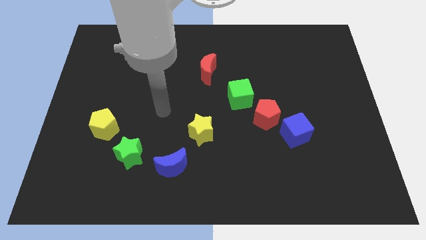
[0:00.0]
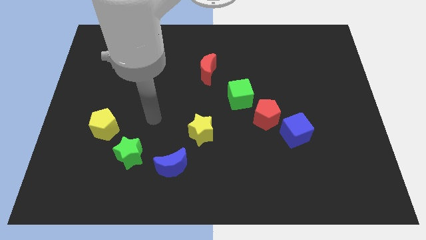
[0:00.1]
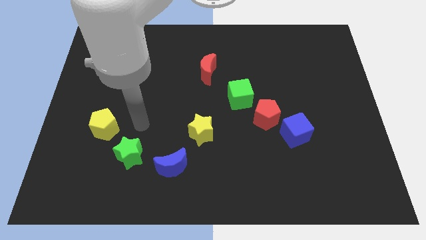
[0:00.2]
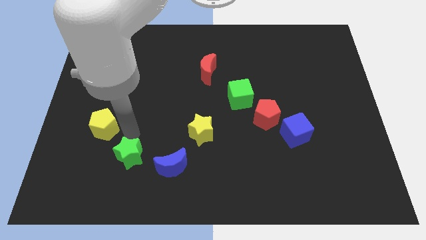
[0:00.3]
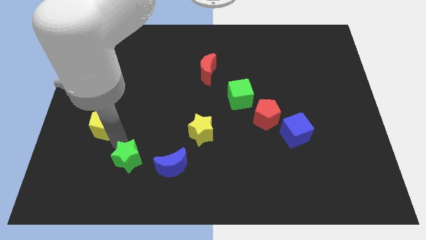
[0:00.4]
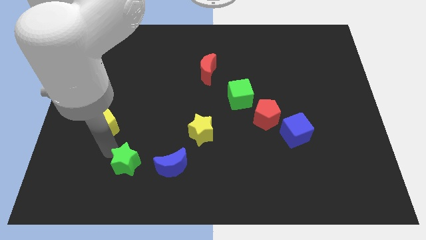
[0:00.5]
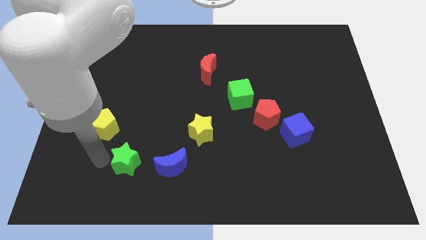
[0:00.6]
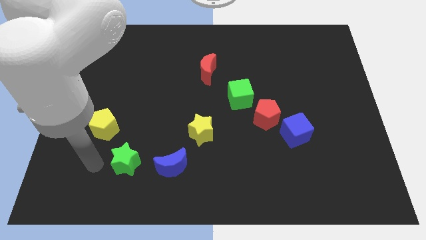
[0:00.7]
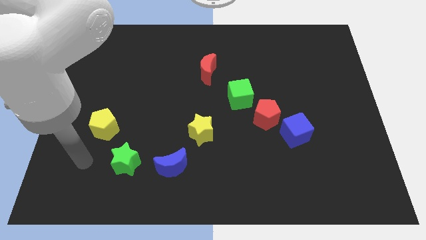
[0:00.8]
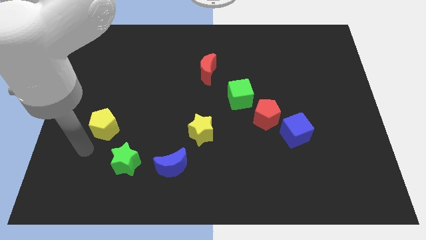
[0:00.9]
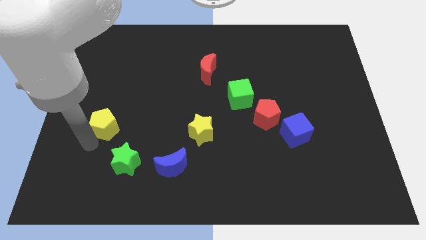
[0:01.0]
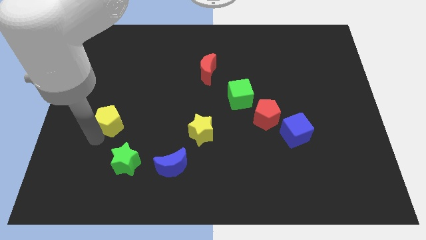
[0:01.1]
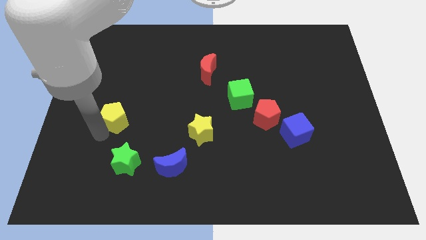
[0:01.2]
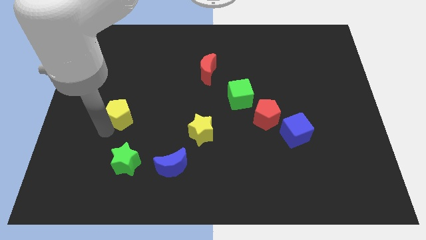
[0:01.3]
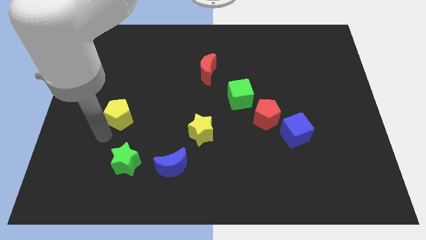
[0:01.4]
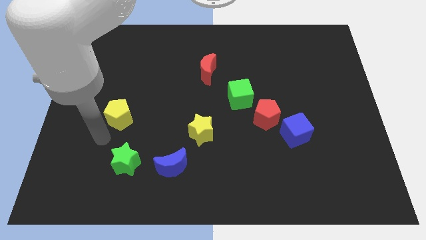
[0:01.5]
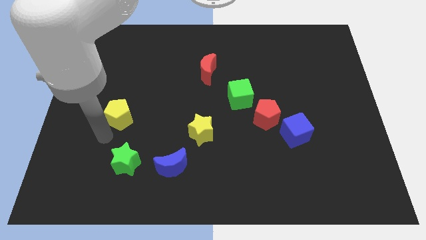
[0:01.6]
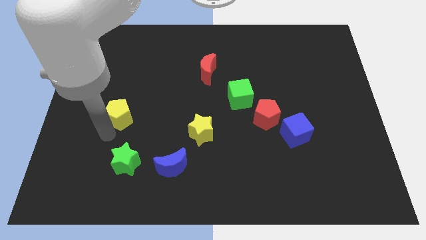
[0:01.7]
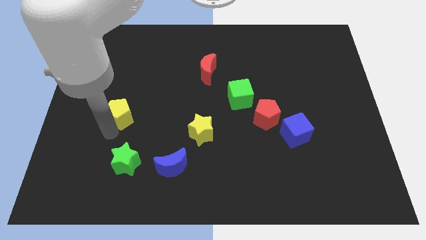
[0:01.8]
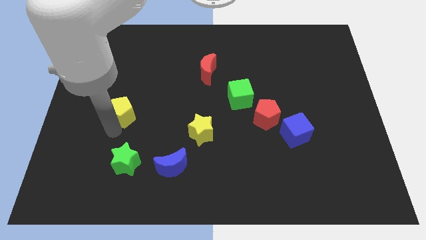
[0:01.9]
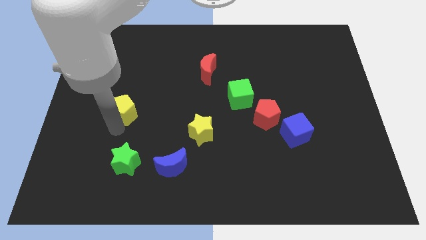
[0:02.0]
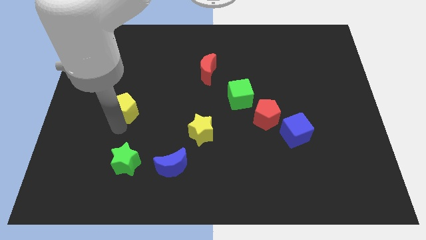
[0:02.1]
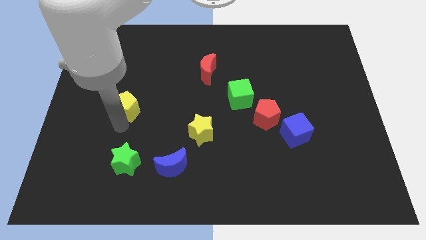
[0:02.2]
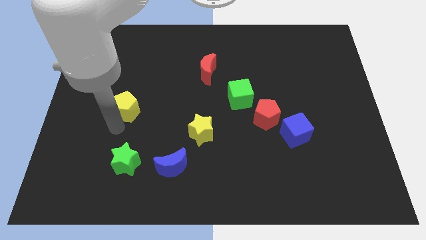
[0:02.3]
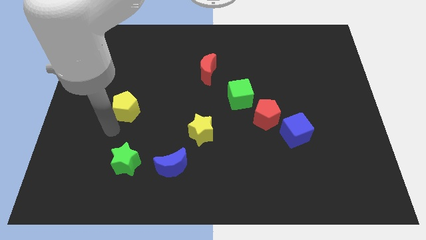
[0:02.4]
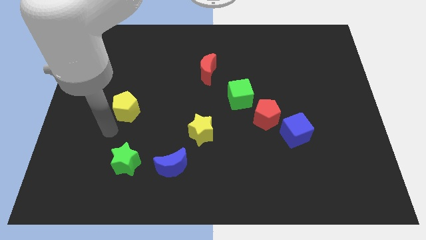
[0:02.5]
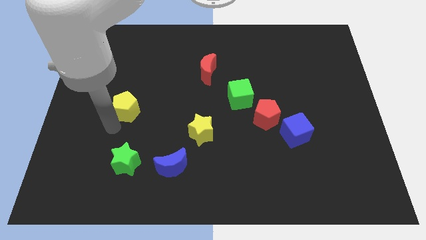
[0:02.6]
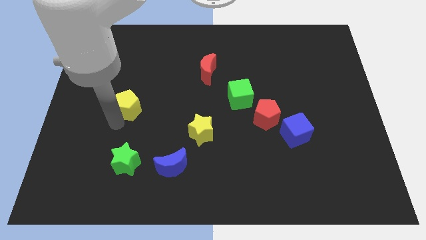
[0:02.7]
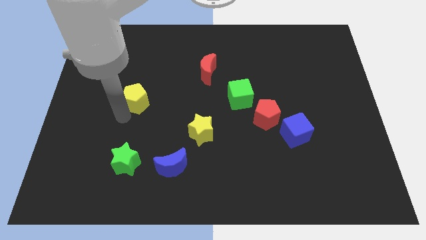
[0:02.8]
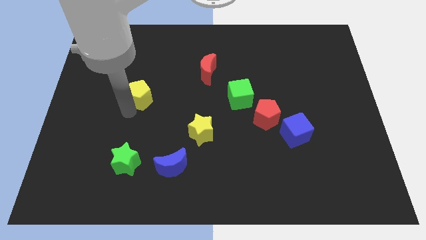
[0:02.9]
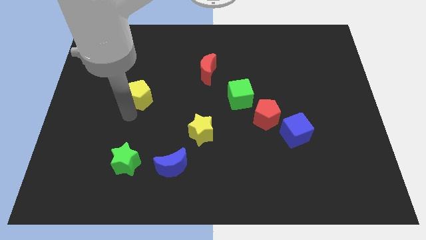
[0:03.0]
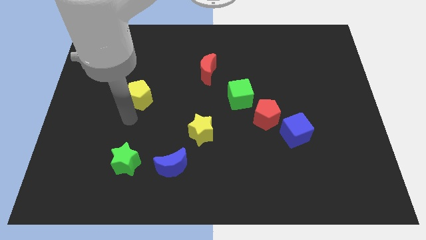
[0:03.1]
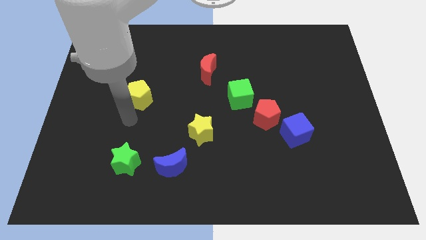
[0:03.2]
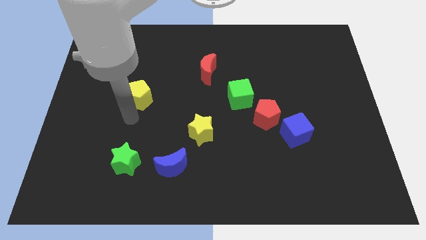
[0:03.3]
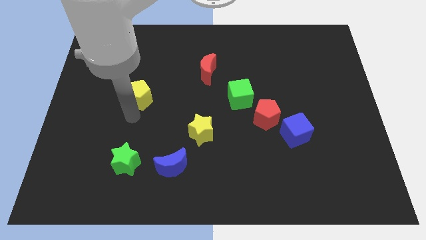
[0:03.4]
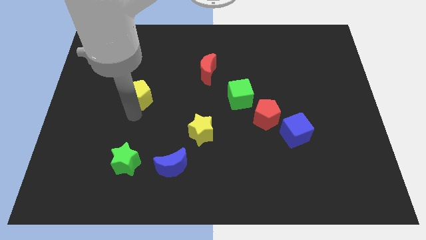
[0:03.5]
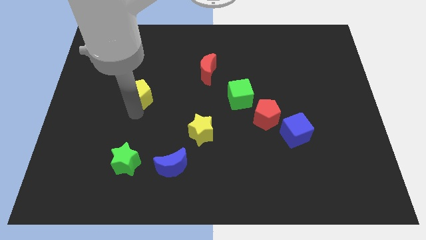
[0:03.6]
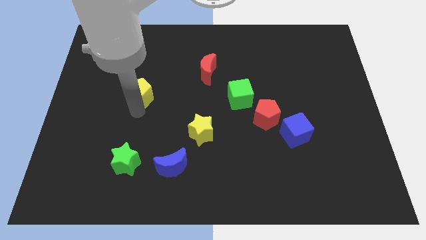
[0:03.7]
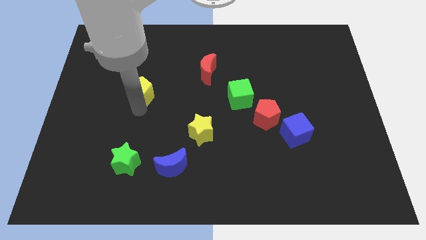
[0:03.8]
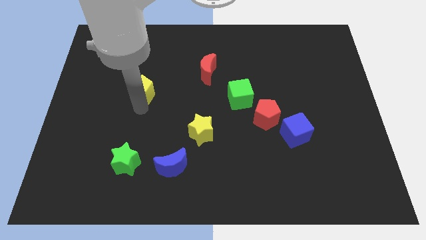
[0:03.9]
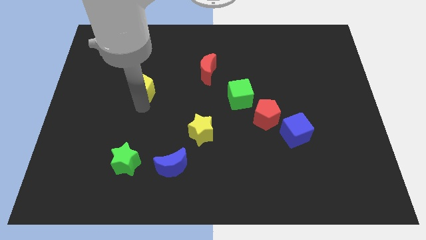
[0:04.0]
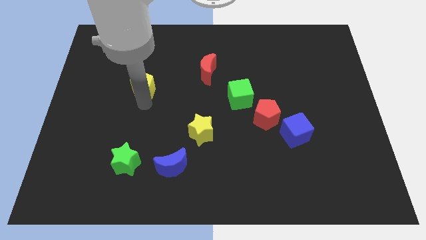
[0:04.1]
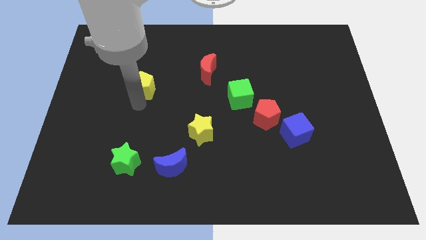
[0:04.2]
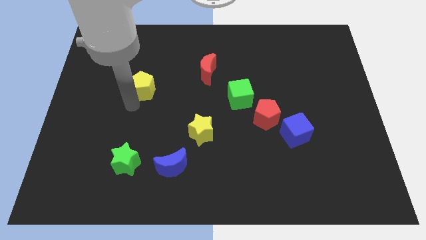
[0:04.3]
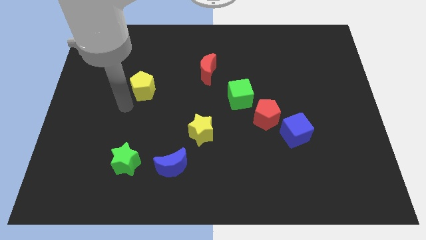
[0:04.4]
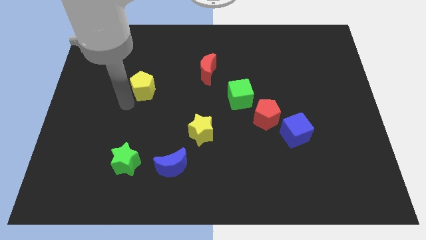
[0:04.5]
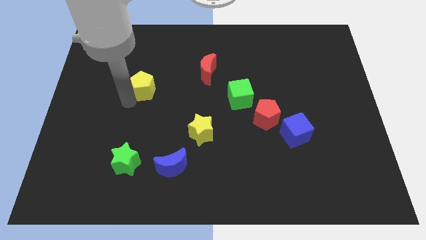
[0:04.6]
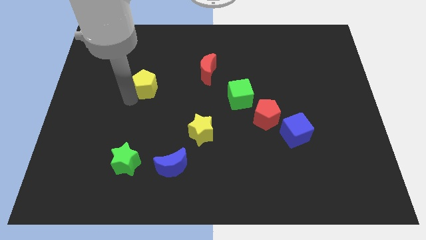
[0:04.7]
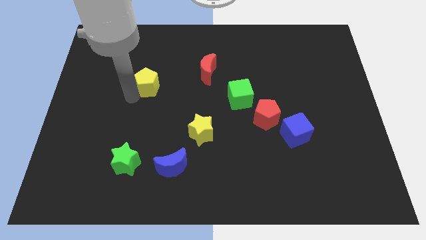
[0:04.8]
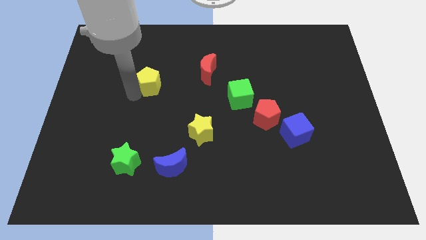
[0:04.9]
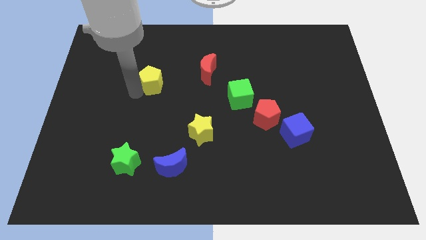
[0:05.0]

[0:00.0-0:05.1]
slide the yellow pentagon left of the red moon

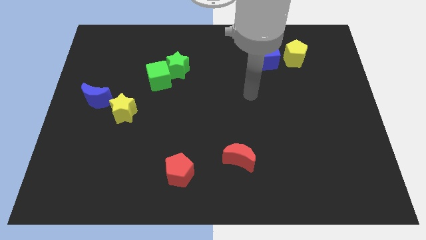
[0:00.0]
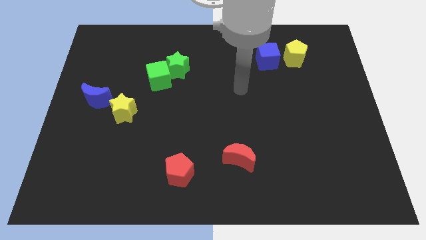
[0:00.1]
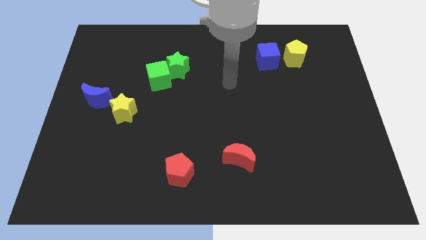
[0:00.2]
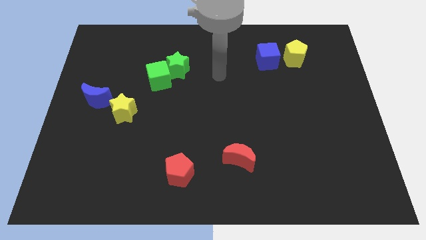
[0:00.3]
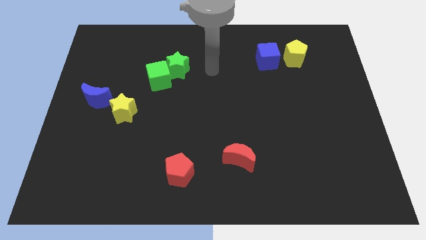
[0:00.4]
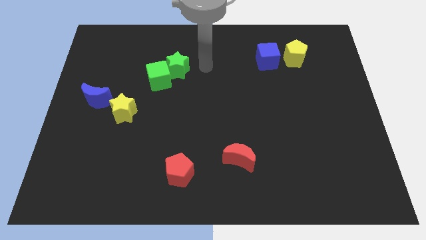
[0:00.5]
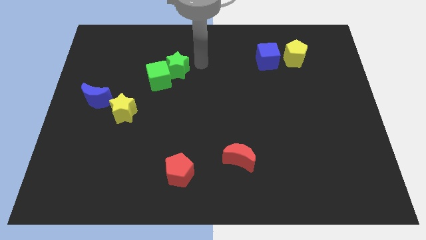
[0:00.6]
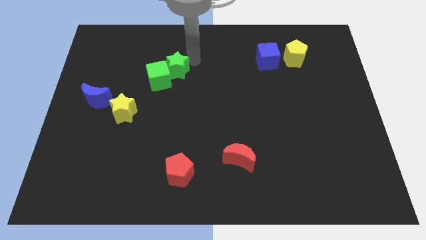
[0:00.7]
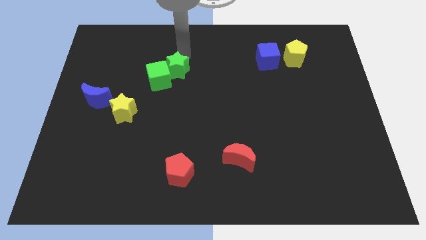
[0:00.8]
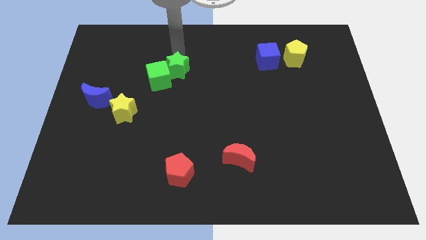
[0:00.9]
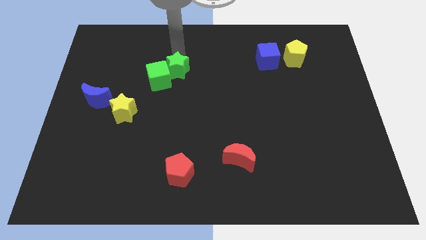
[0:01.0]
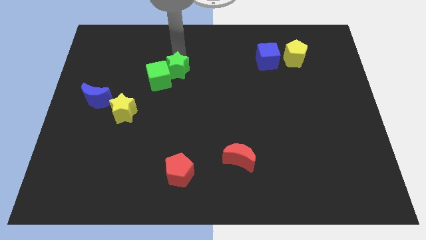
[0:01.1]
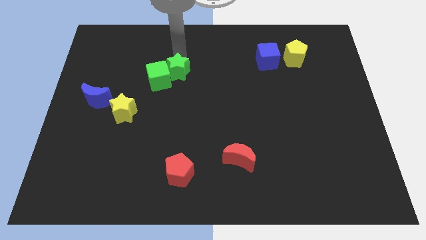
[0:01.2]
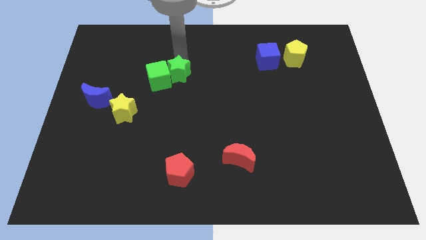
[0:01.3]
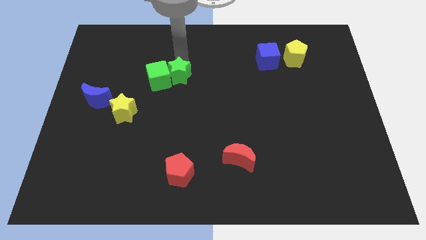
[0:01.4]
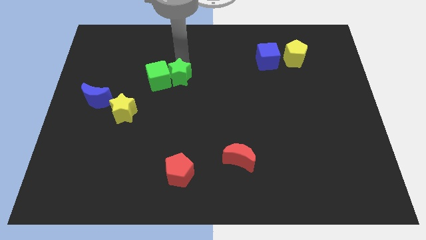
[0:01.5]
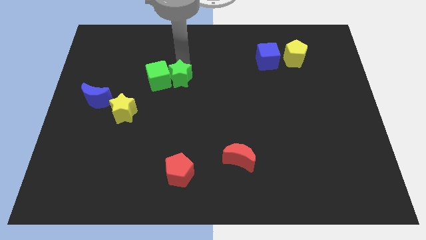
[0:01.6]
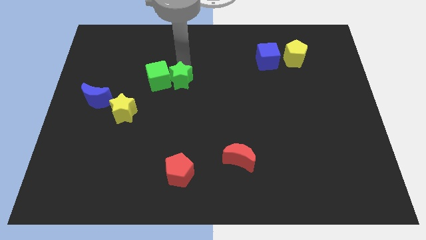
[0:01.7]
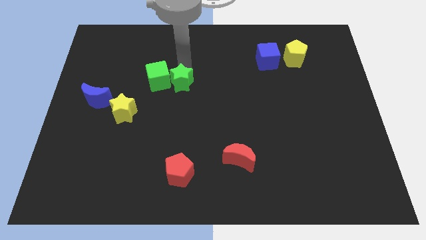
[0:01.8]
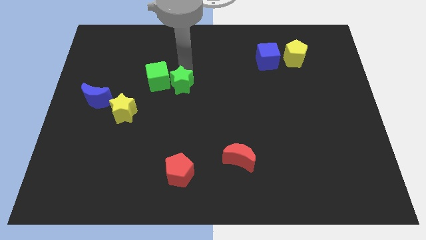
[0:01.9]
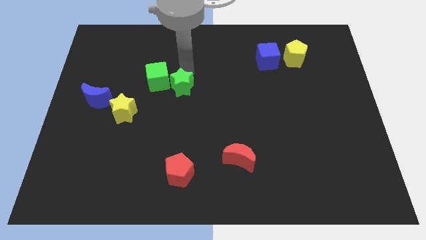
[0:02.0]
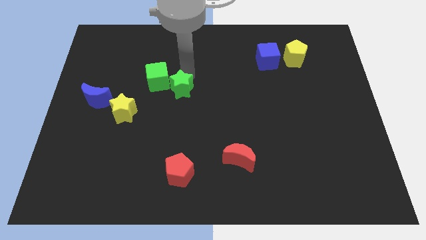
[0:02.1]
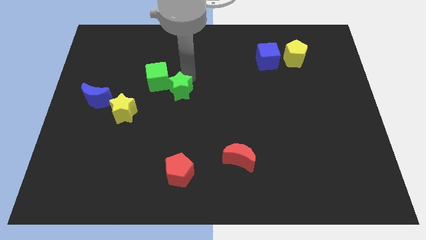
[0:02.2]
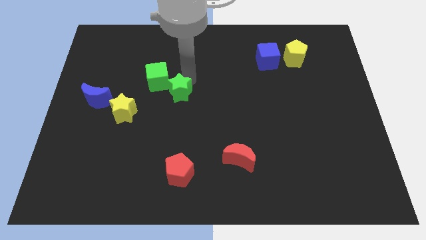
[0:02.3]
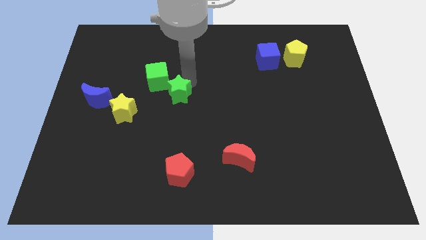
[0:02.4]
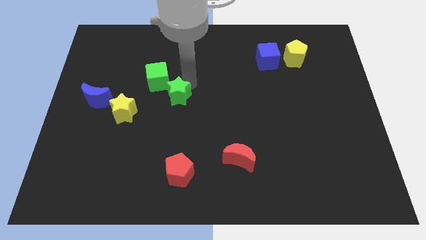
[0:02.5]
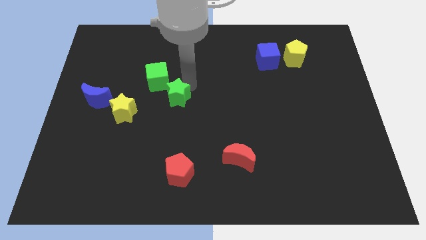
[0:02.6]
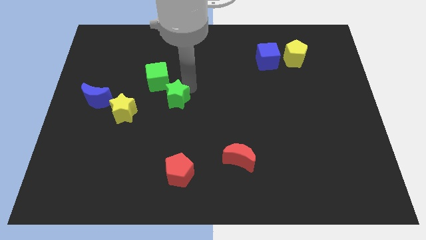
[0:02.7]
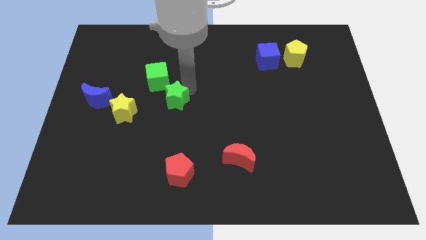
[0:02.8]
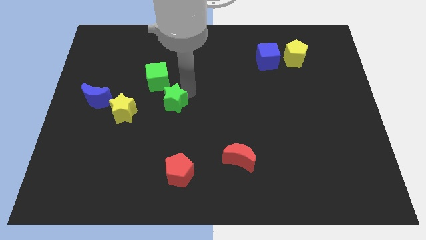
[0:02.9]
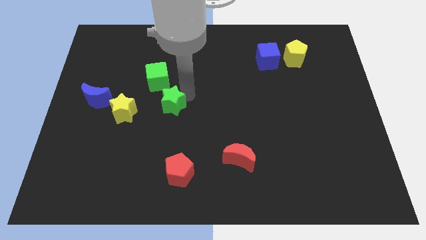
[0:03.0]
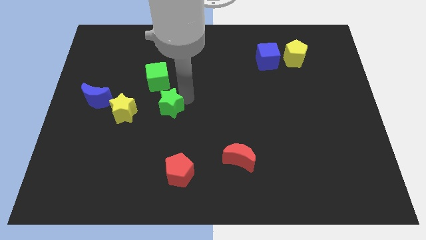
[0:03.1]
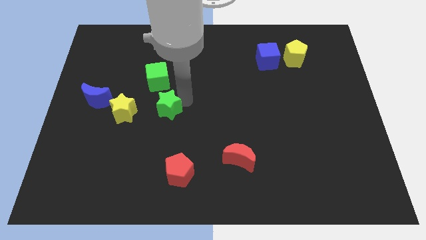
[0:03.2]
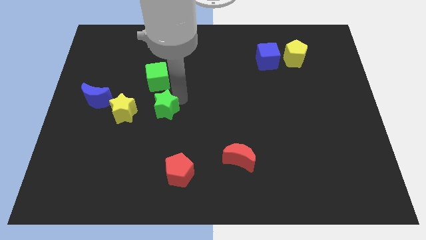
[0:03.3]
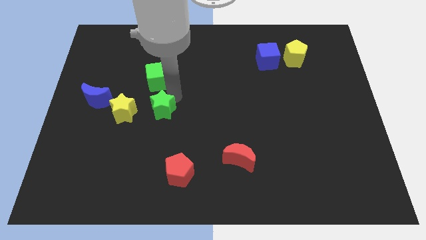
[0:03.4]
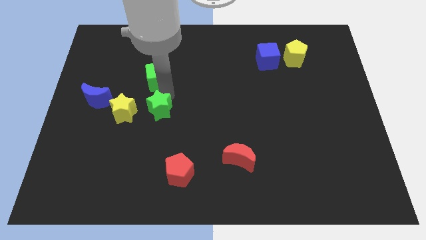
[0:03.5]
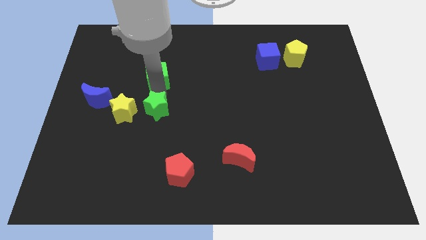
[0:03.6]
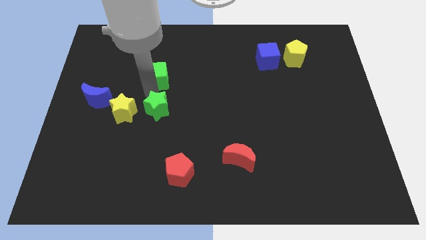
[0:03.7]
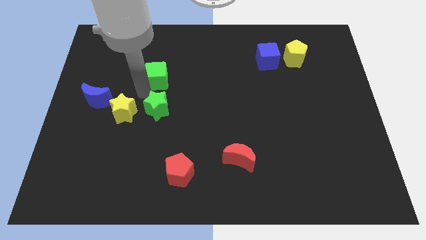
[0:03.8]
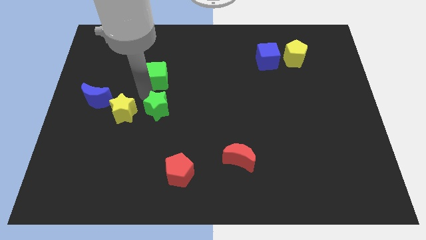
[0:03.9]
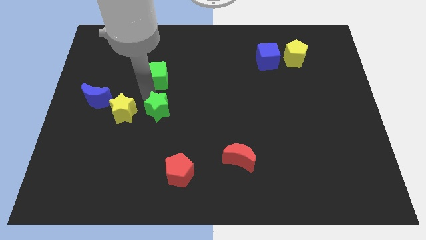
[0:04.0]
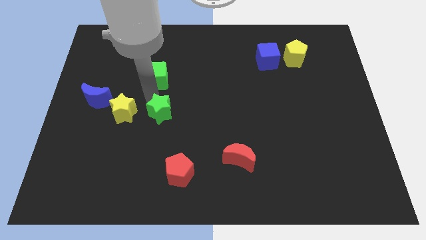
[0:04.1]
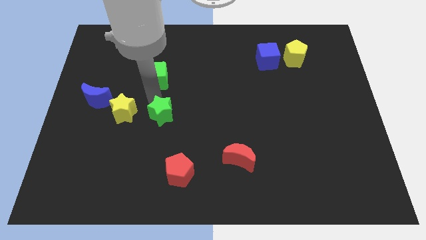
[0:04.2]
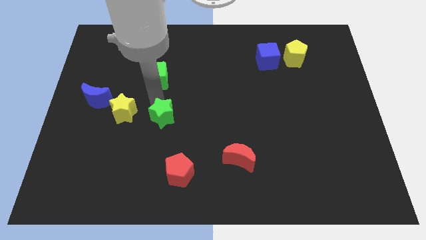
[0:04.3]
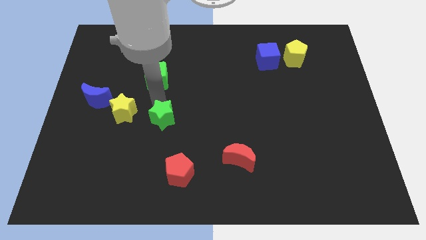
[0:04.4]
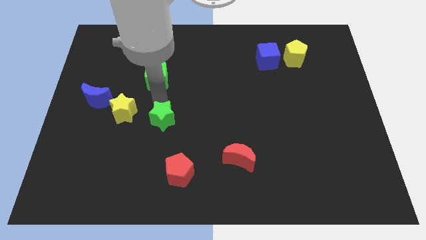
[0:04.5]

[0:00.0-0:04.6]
put the green star to the top of the red pentagon
